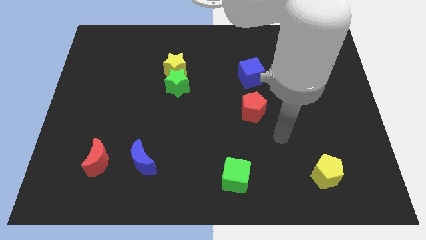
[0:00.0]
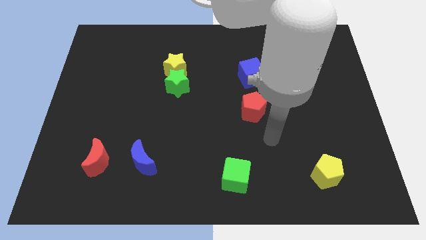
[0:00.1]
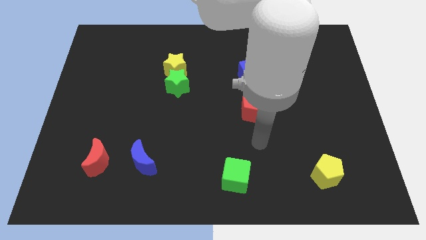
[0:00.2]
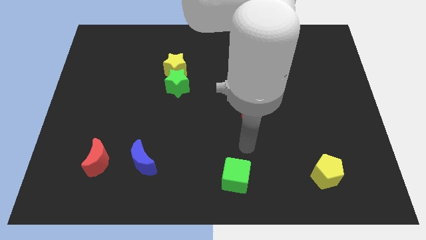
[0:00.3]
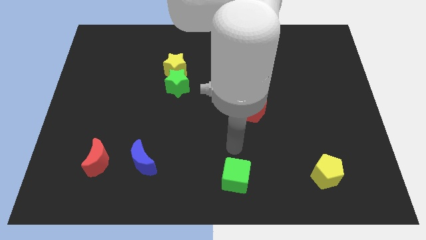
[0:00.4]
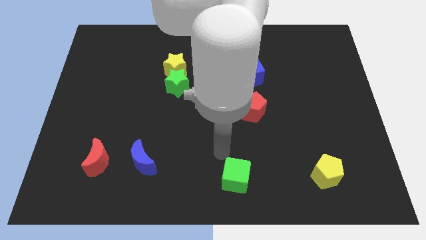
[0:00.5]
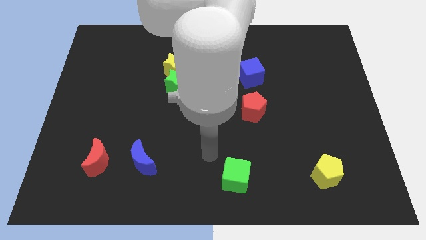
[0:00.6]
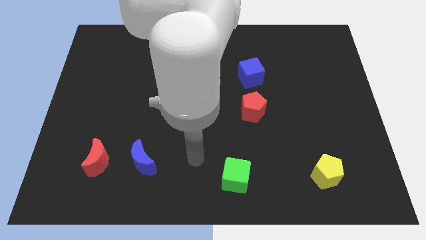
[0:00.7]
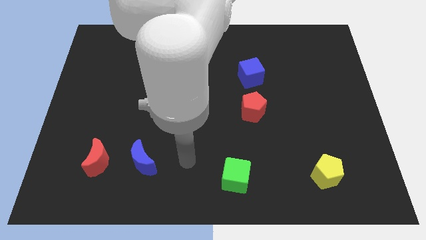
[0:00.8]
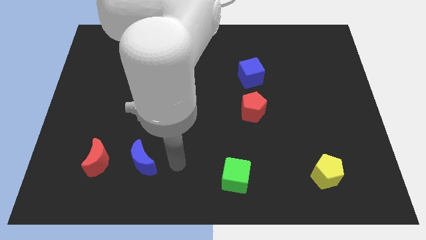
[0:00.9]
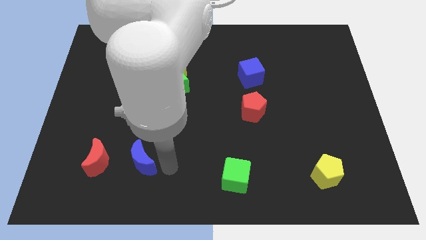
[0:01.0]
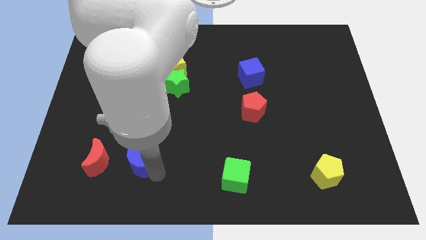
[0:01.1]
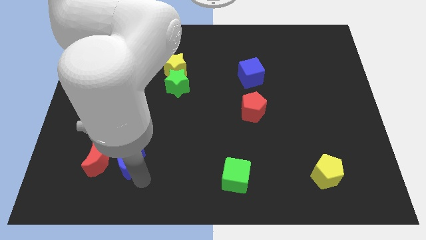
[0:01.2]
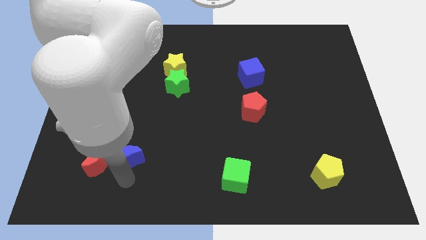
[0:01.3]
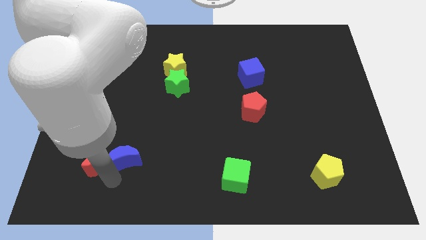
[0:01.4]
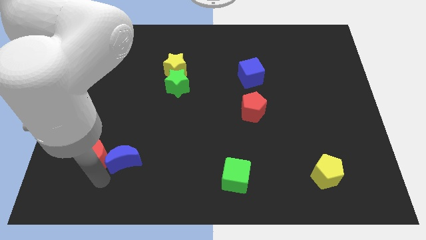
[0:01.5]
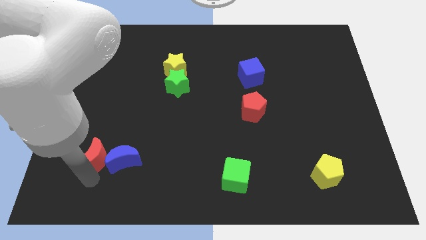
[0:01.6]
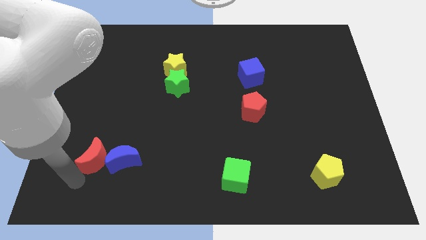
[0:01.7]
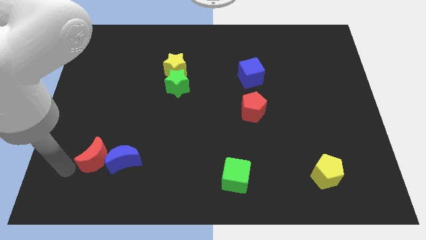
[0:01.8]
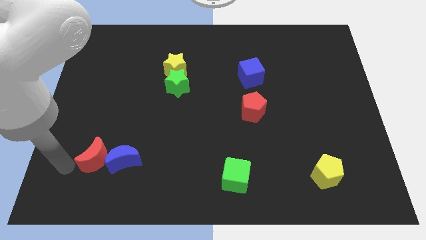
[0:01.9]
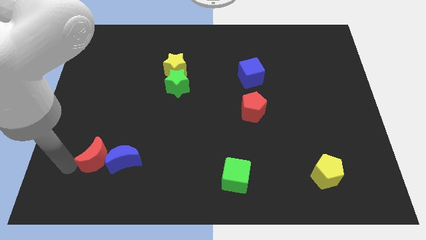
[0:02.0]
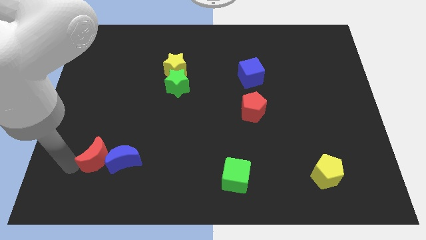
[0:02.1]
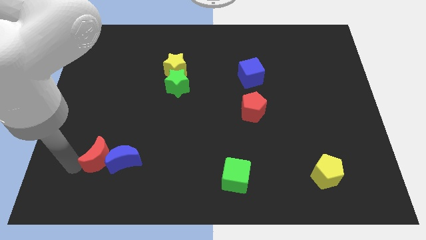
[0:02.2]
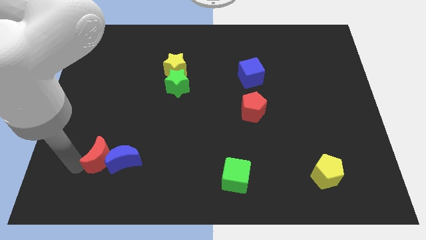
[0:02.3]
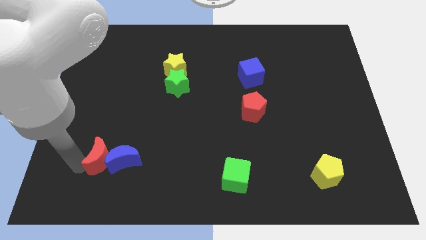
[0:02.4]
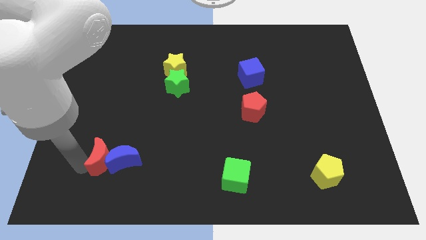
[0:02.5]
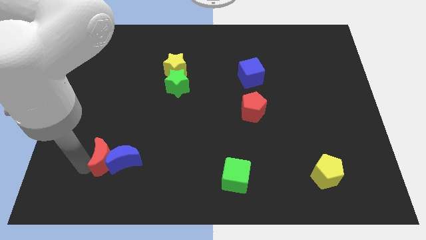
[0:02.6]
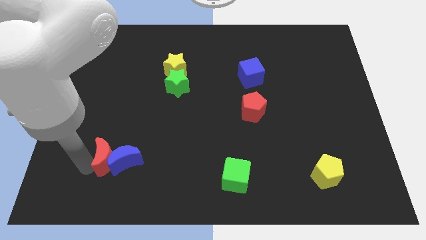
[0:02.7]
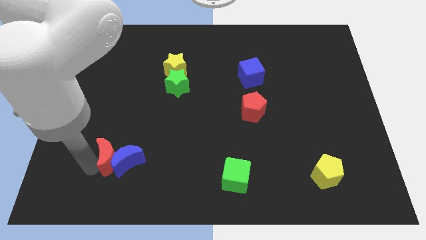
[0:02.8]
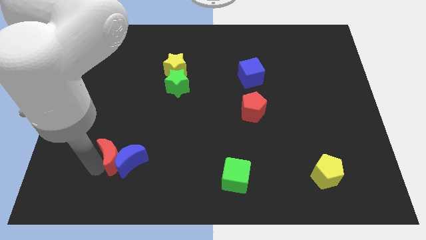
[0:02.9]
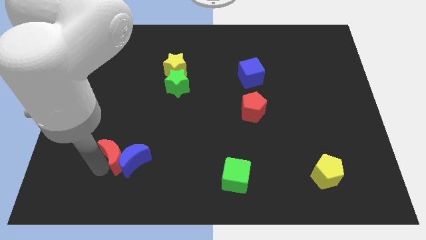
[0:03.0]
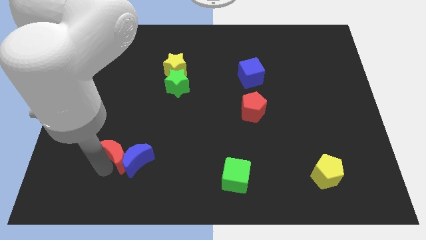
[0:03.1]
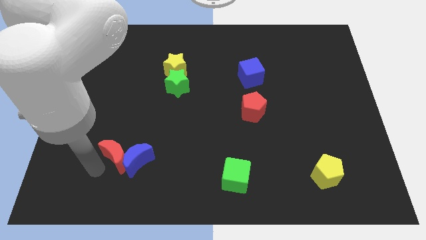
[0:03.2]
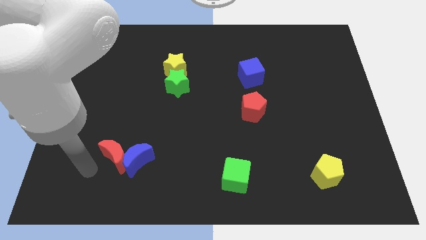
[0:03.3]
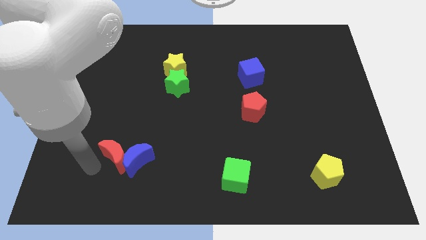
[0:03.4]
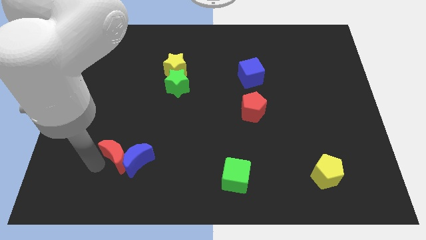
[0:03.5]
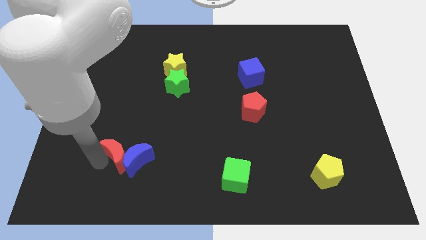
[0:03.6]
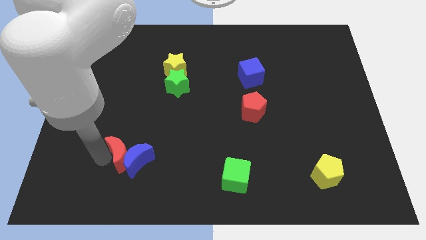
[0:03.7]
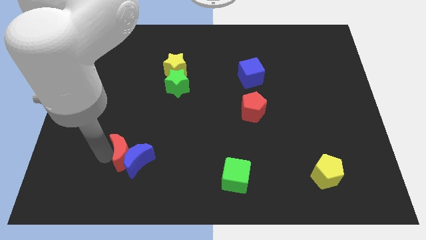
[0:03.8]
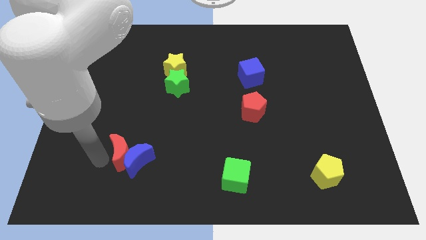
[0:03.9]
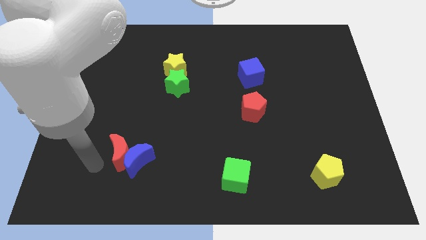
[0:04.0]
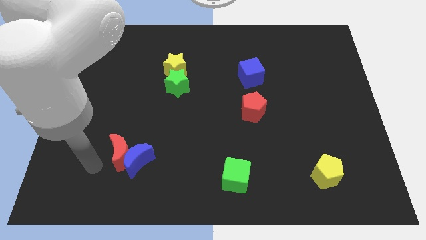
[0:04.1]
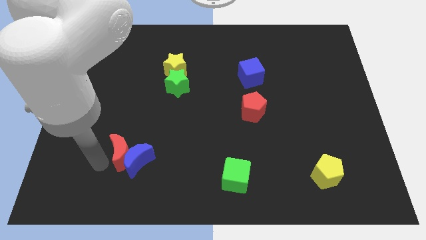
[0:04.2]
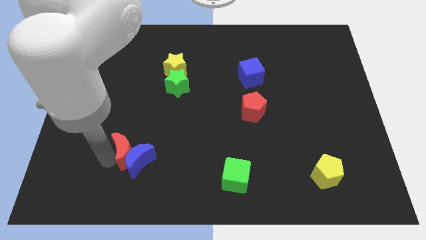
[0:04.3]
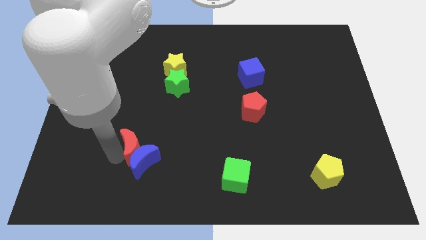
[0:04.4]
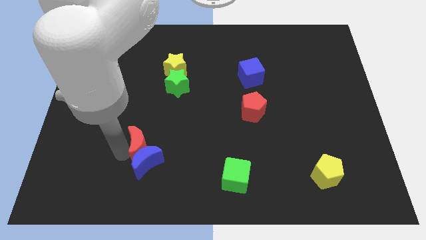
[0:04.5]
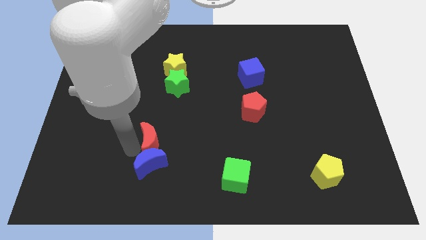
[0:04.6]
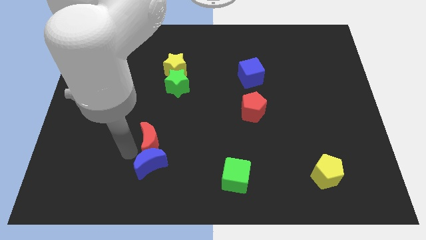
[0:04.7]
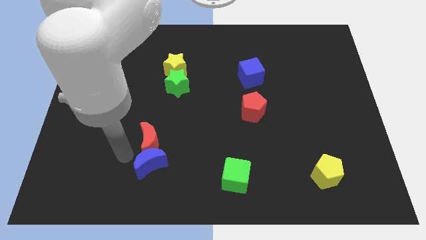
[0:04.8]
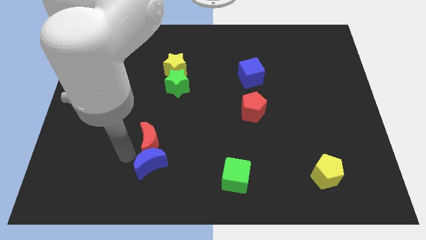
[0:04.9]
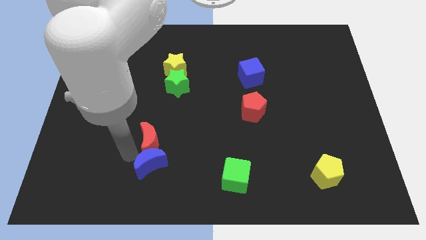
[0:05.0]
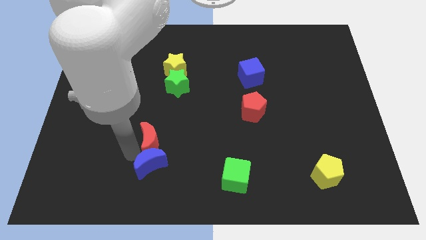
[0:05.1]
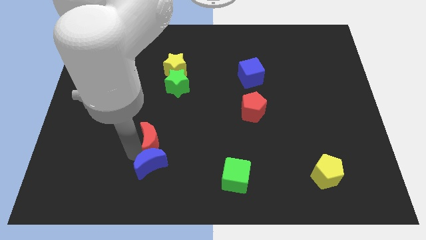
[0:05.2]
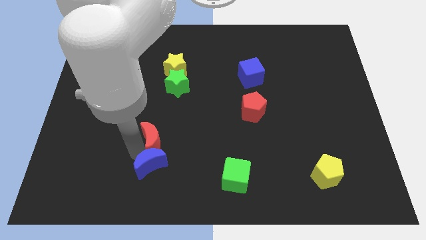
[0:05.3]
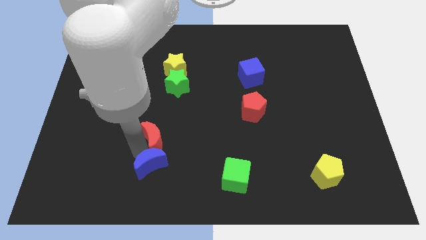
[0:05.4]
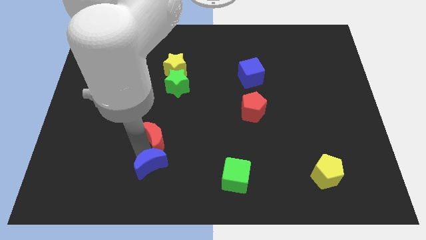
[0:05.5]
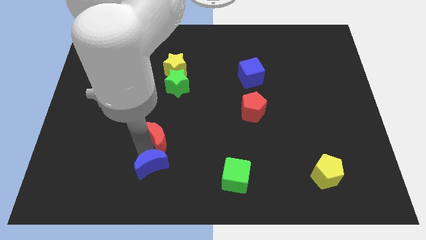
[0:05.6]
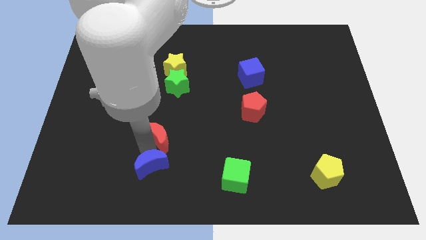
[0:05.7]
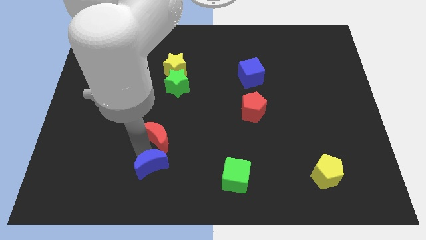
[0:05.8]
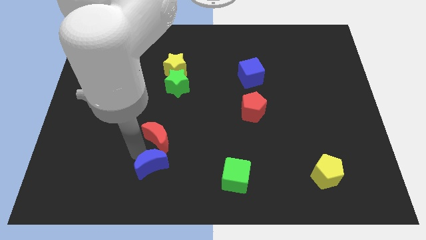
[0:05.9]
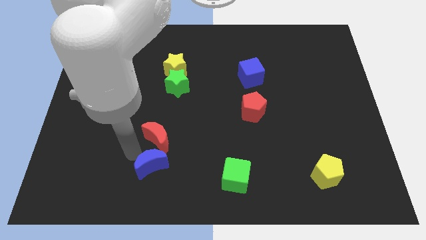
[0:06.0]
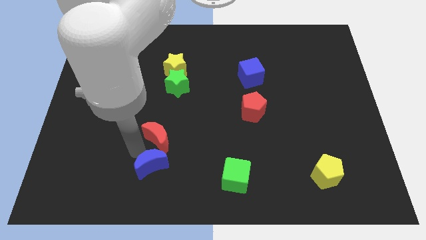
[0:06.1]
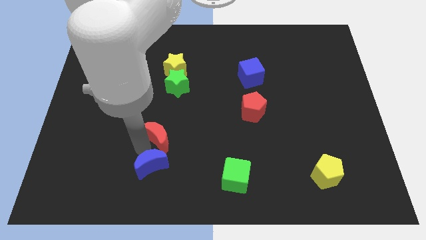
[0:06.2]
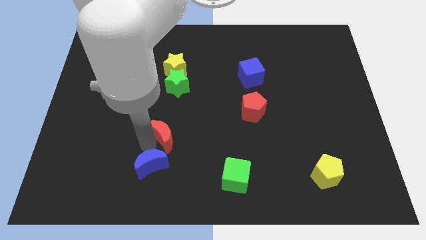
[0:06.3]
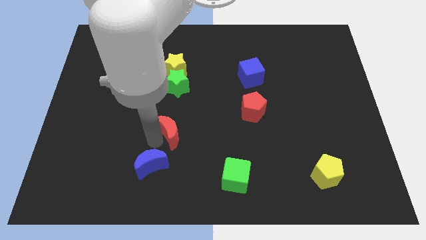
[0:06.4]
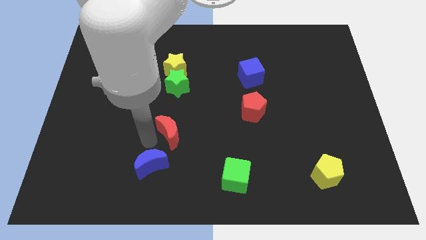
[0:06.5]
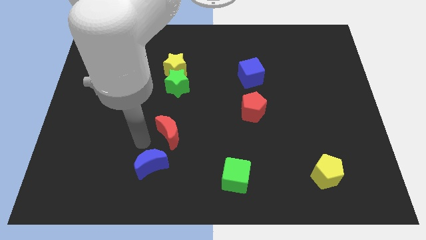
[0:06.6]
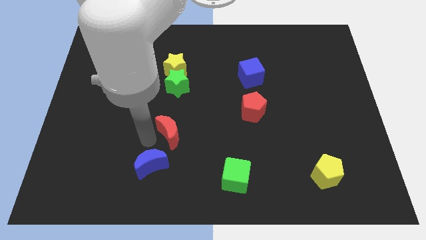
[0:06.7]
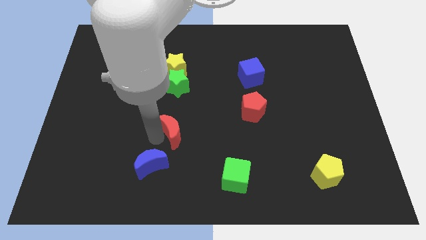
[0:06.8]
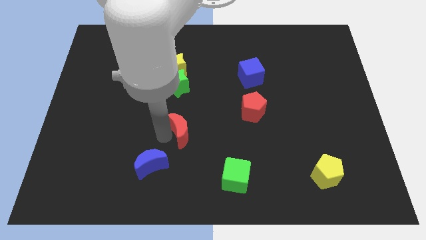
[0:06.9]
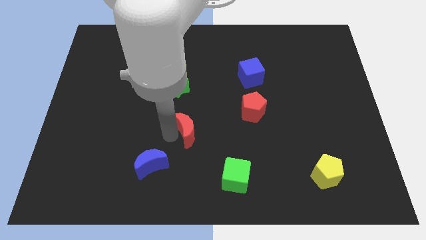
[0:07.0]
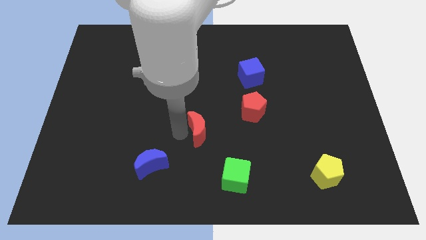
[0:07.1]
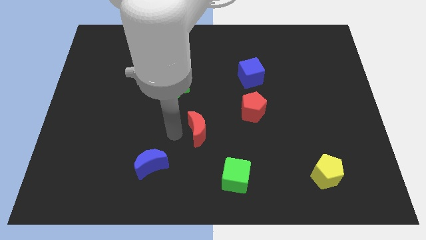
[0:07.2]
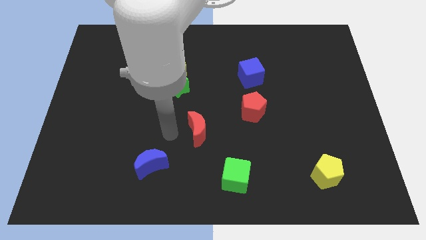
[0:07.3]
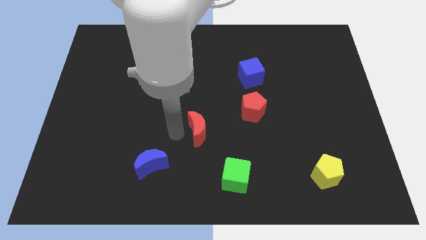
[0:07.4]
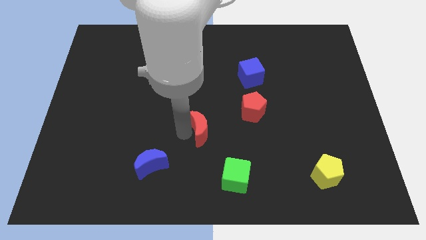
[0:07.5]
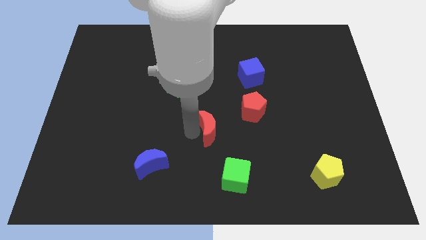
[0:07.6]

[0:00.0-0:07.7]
put the red moon to the bottom left side of the red pentagon
